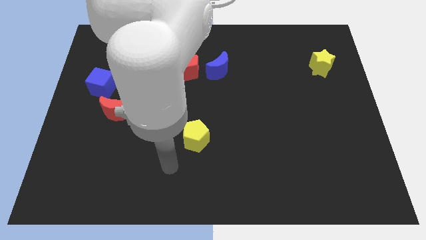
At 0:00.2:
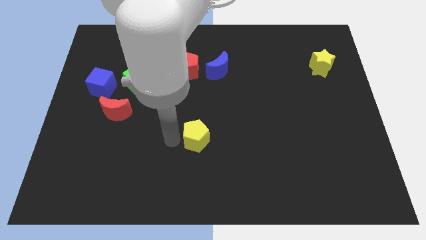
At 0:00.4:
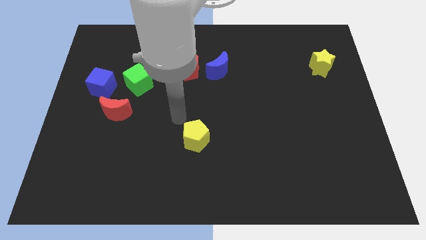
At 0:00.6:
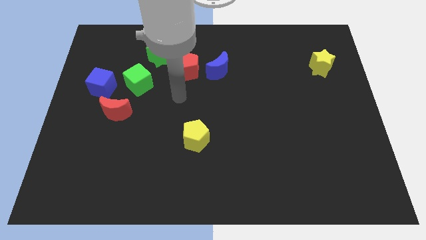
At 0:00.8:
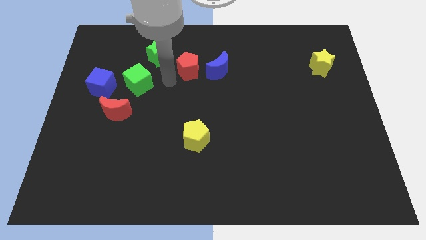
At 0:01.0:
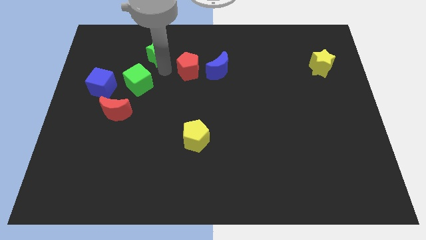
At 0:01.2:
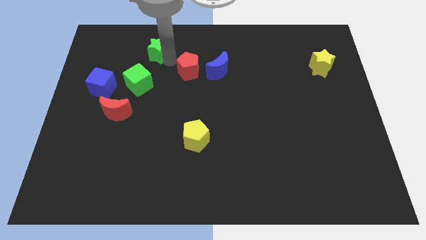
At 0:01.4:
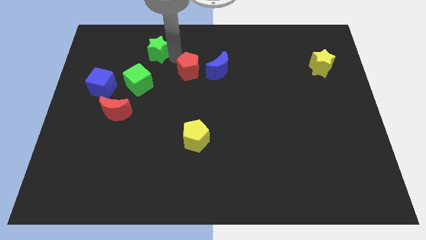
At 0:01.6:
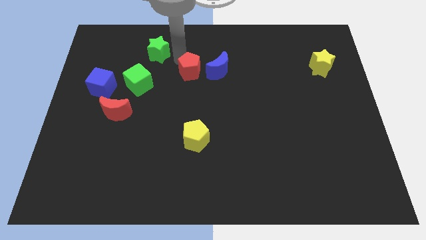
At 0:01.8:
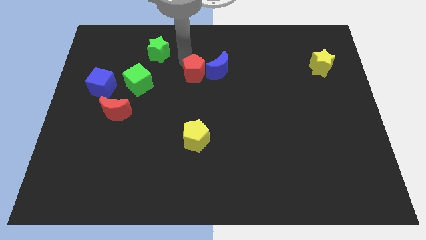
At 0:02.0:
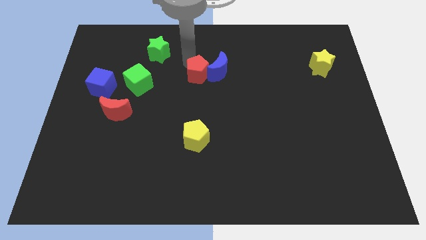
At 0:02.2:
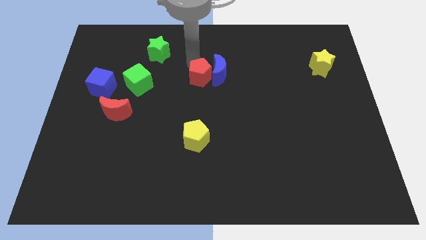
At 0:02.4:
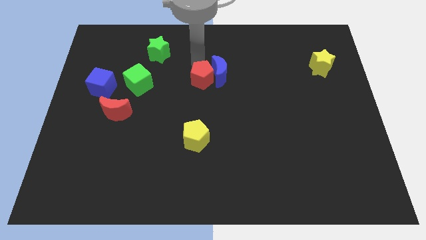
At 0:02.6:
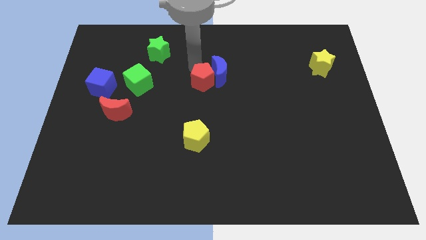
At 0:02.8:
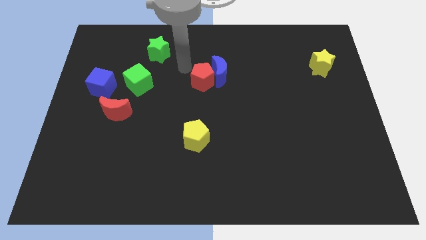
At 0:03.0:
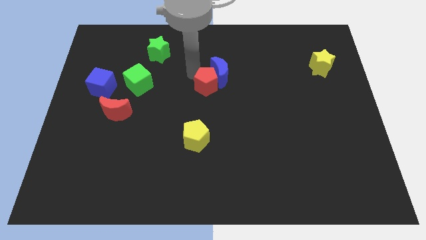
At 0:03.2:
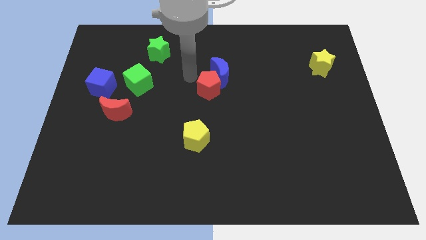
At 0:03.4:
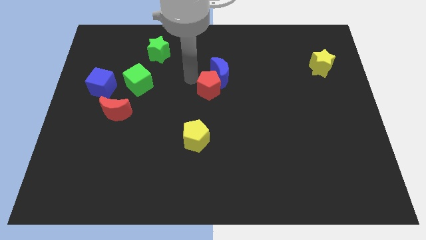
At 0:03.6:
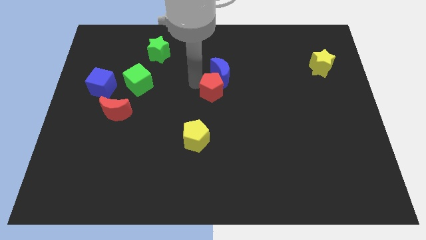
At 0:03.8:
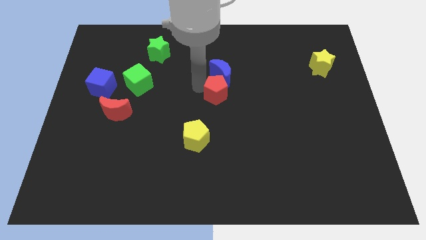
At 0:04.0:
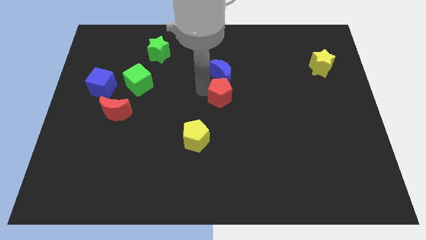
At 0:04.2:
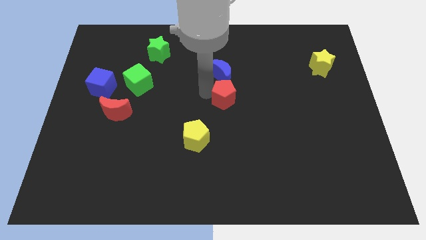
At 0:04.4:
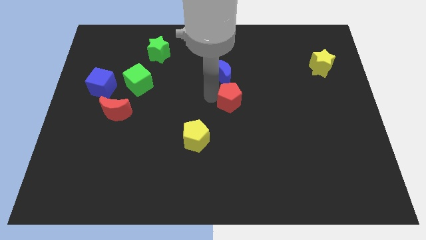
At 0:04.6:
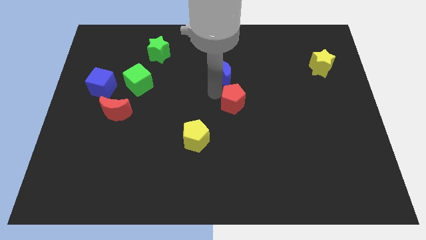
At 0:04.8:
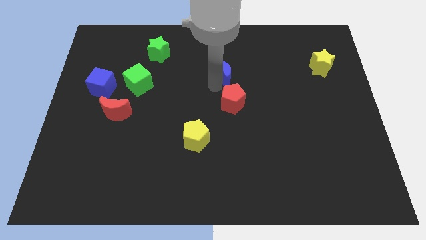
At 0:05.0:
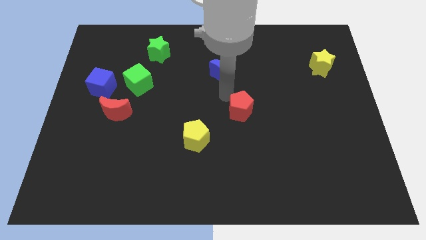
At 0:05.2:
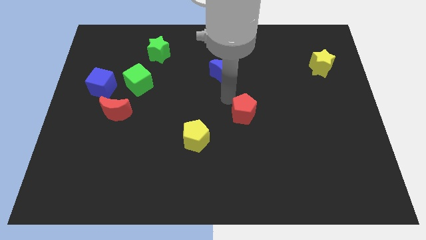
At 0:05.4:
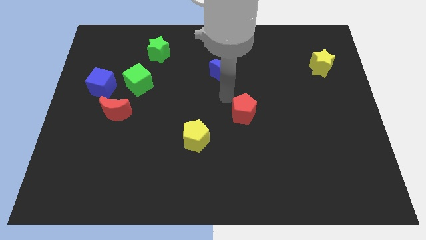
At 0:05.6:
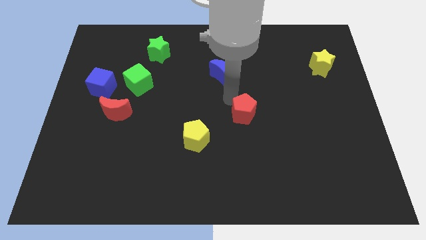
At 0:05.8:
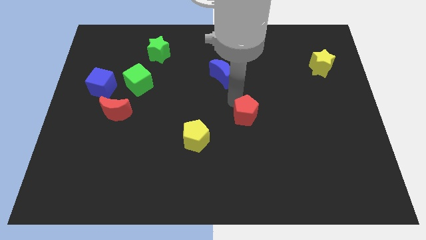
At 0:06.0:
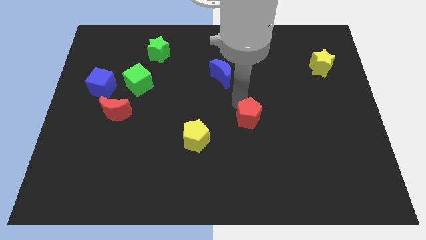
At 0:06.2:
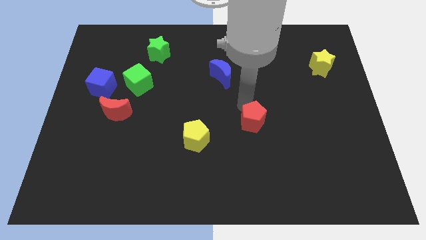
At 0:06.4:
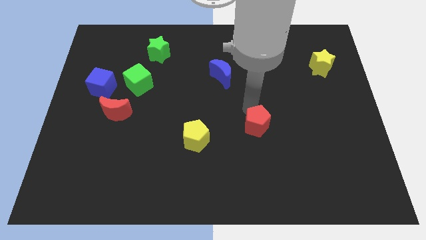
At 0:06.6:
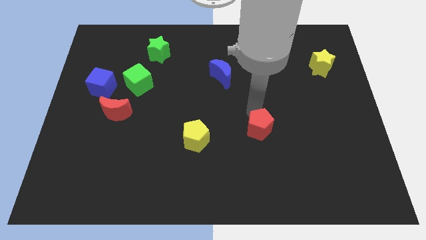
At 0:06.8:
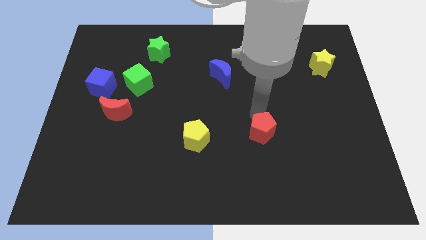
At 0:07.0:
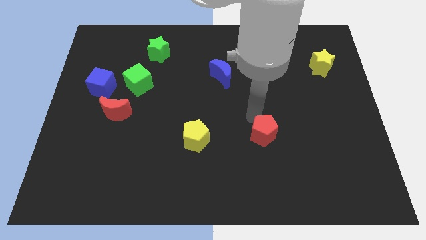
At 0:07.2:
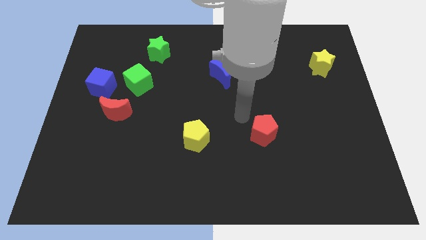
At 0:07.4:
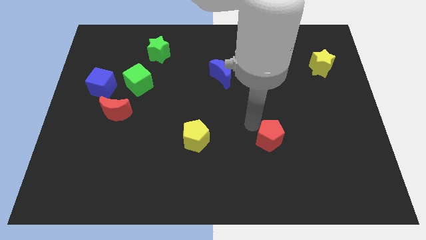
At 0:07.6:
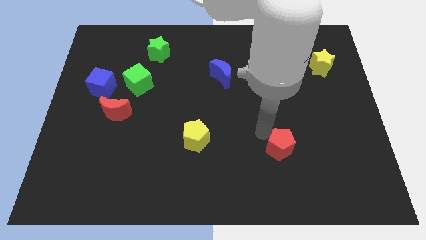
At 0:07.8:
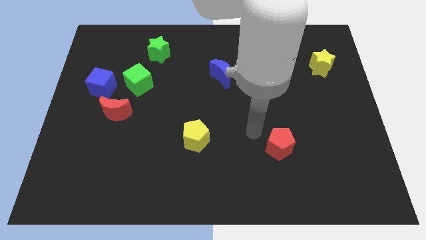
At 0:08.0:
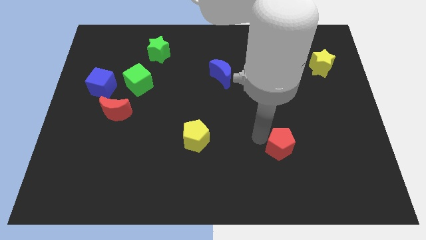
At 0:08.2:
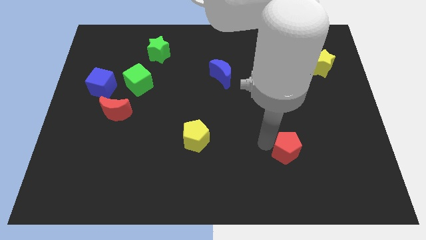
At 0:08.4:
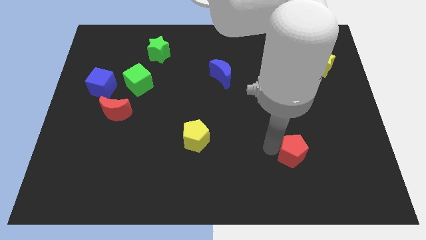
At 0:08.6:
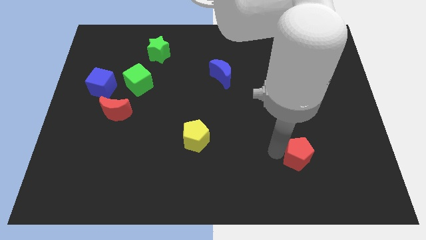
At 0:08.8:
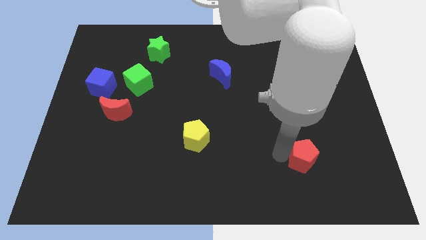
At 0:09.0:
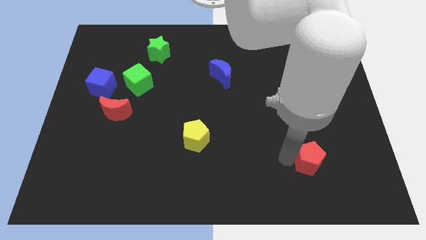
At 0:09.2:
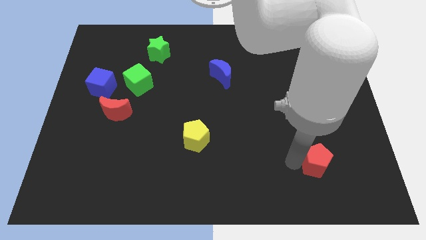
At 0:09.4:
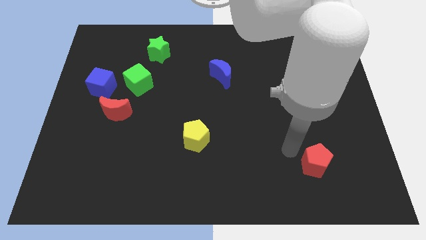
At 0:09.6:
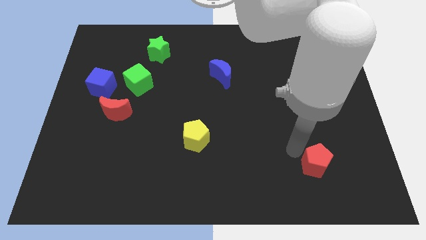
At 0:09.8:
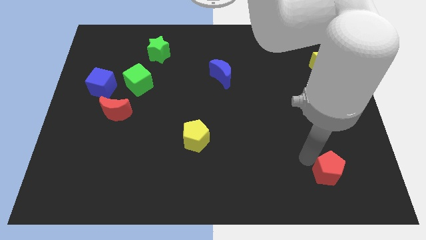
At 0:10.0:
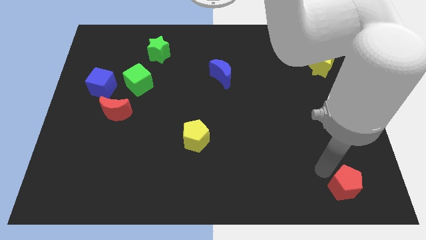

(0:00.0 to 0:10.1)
push the red pentagon to the lower right corner

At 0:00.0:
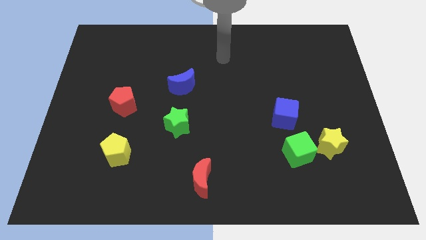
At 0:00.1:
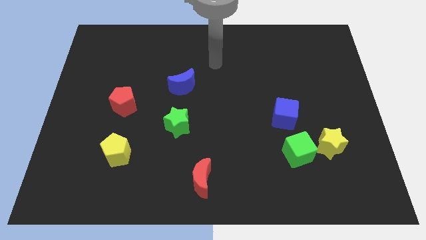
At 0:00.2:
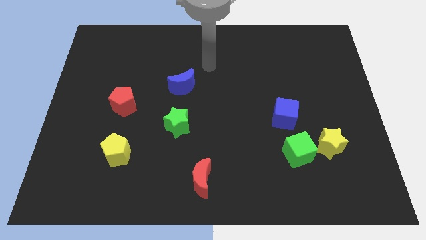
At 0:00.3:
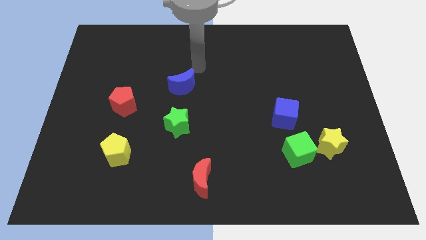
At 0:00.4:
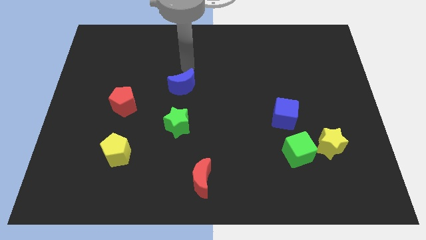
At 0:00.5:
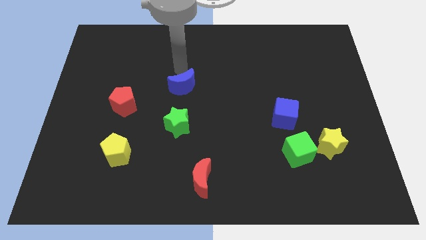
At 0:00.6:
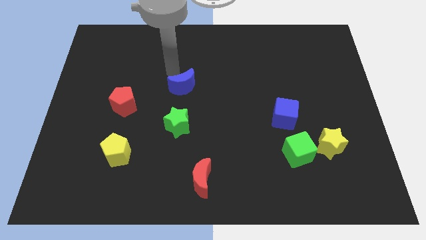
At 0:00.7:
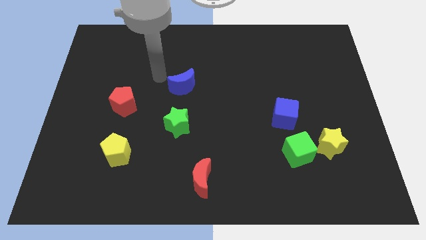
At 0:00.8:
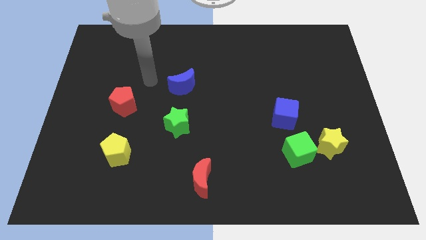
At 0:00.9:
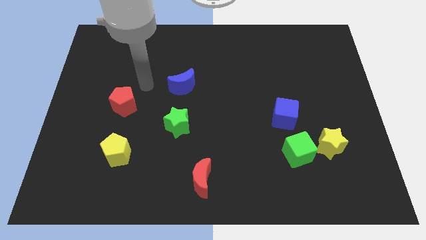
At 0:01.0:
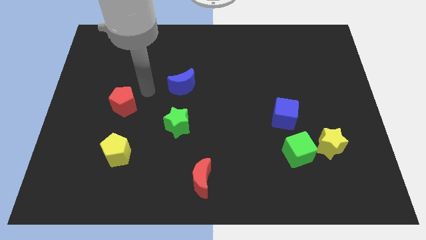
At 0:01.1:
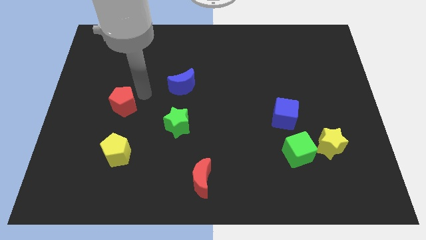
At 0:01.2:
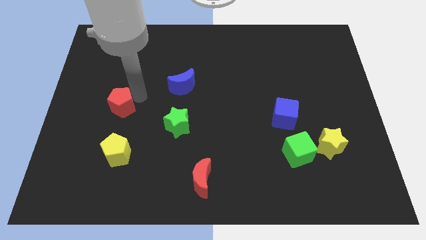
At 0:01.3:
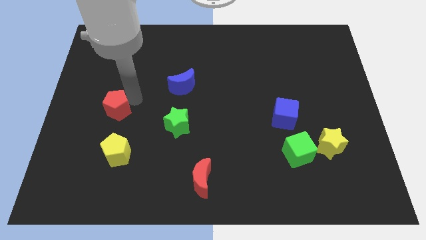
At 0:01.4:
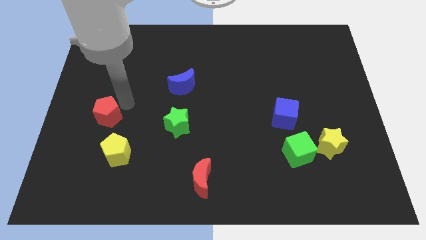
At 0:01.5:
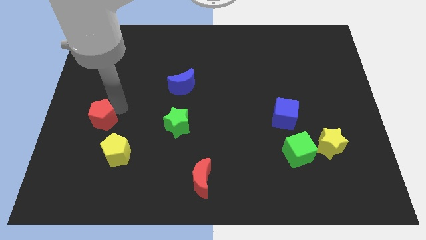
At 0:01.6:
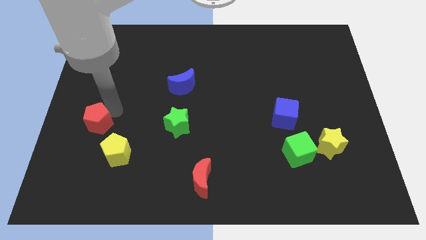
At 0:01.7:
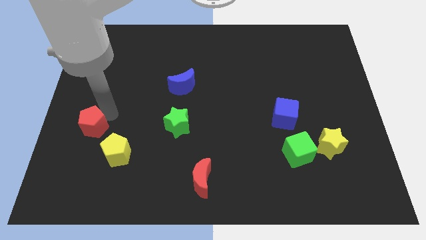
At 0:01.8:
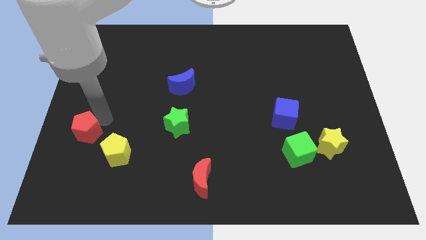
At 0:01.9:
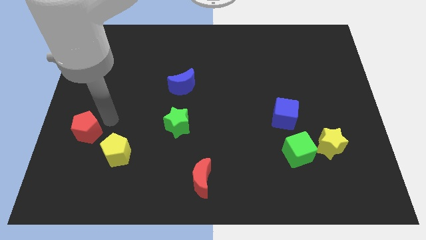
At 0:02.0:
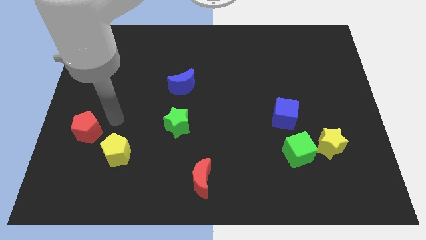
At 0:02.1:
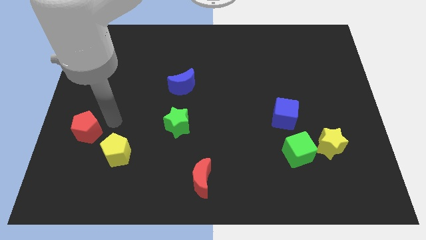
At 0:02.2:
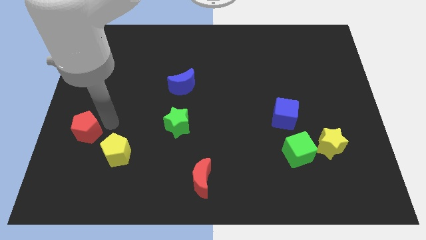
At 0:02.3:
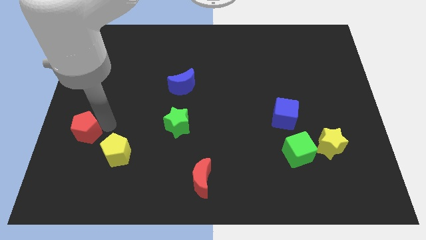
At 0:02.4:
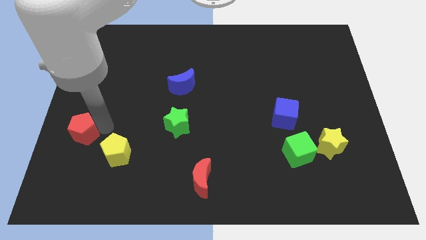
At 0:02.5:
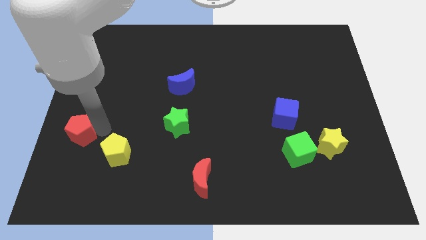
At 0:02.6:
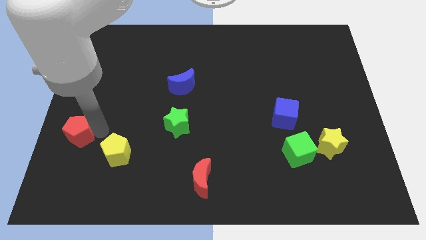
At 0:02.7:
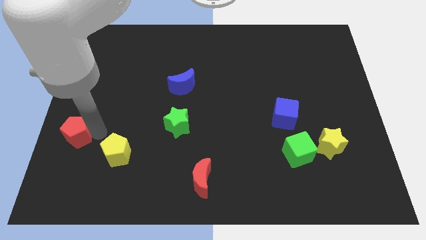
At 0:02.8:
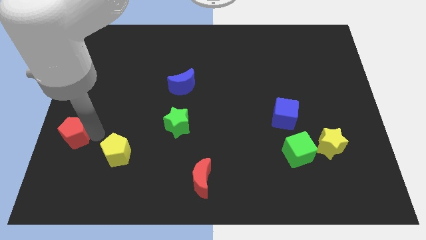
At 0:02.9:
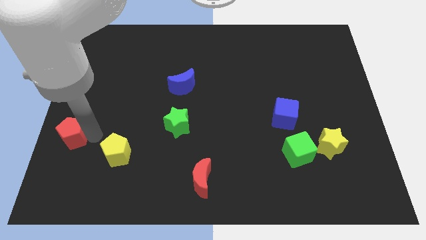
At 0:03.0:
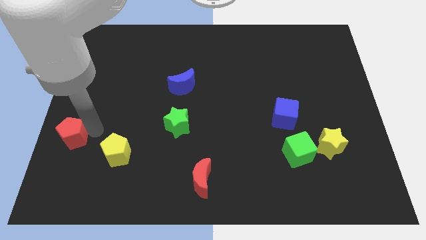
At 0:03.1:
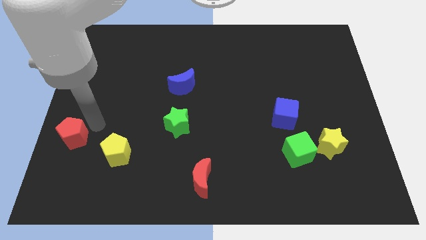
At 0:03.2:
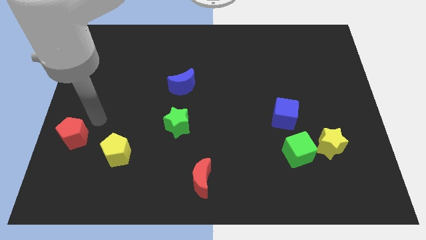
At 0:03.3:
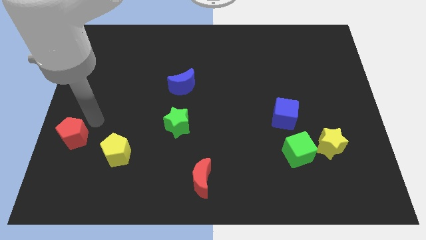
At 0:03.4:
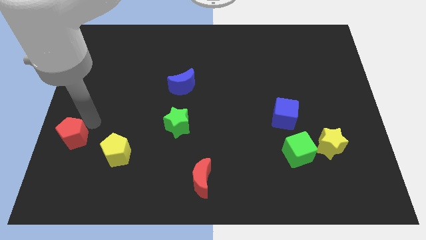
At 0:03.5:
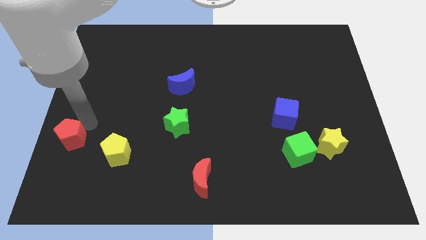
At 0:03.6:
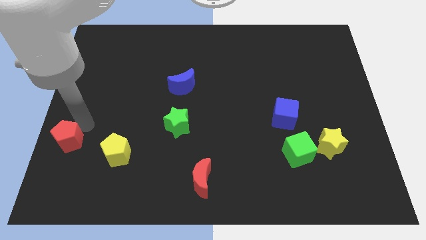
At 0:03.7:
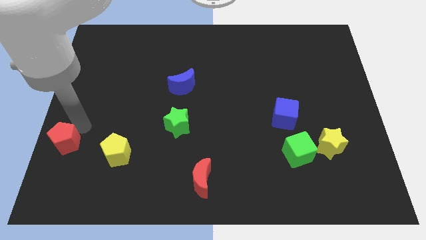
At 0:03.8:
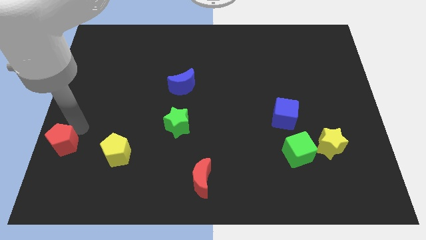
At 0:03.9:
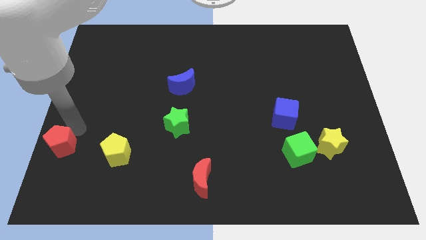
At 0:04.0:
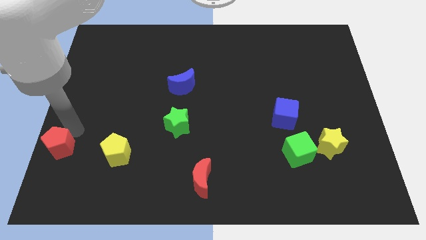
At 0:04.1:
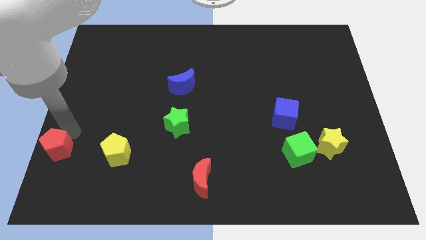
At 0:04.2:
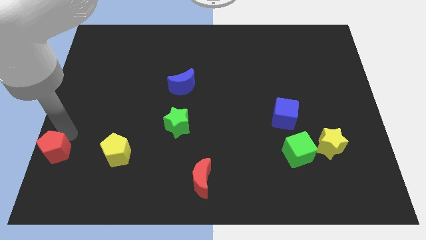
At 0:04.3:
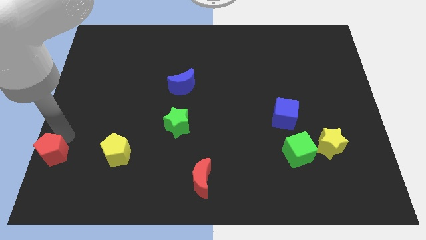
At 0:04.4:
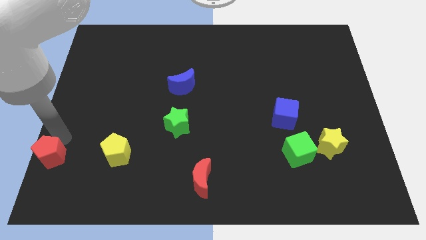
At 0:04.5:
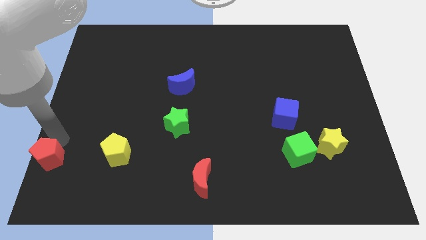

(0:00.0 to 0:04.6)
slide the red pentagon to the bottom left corner
